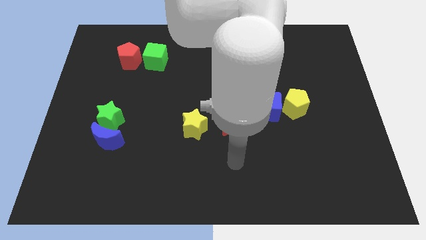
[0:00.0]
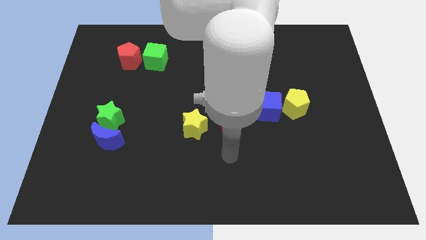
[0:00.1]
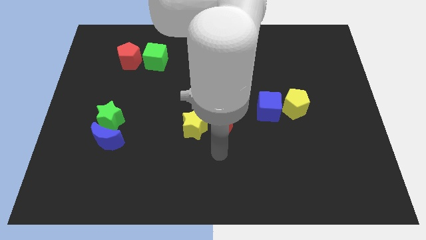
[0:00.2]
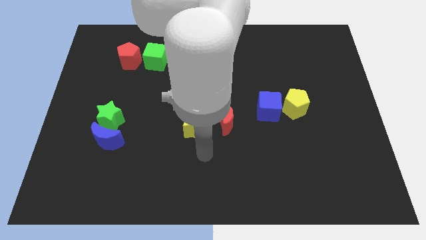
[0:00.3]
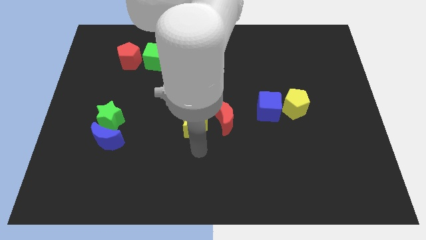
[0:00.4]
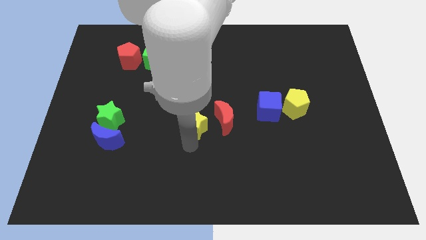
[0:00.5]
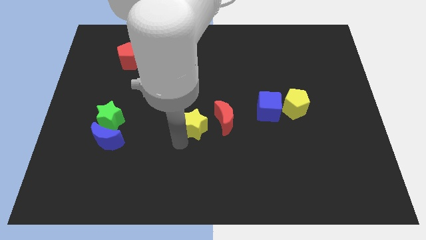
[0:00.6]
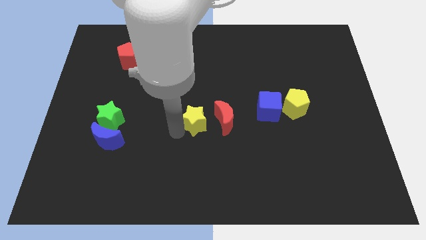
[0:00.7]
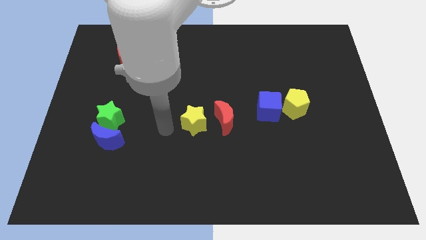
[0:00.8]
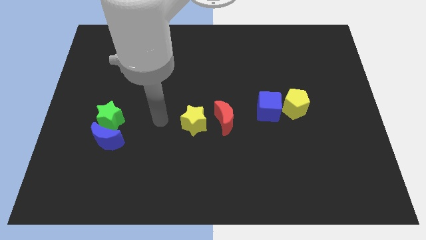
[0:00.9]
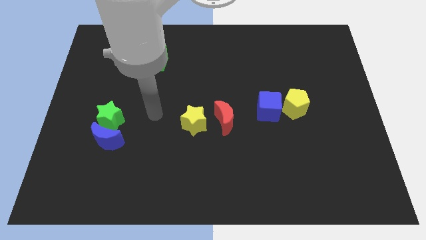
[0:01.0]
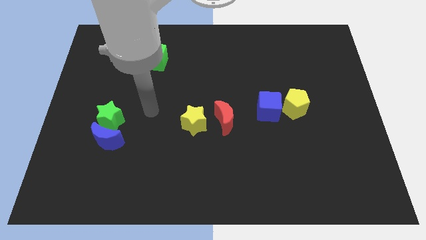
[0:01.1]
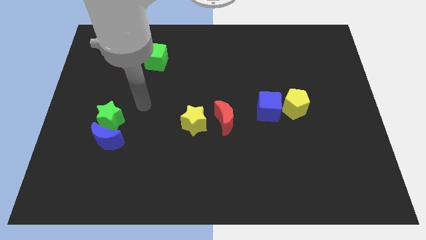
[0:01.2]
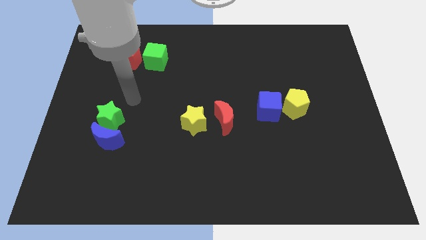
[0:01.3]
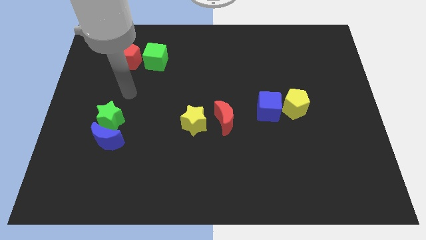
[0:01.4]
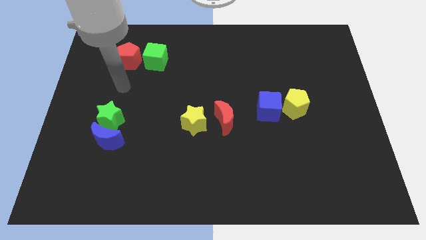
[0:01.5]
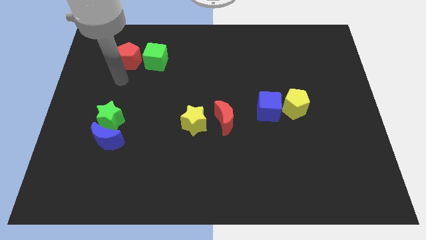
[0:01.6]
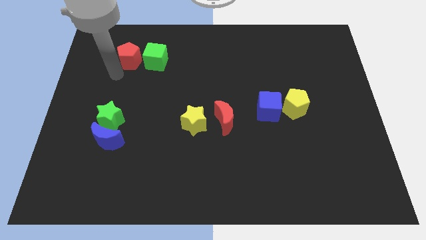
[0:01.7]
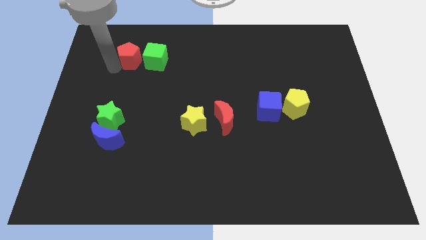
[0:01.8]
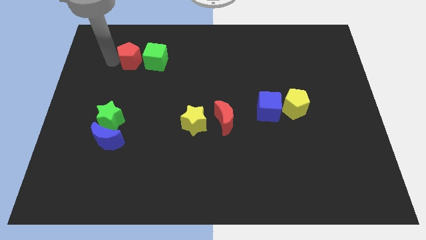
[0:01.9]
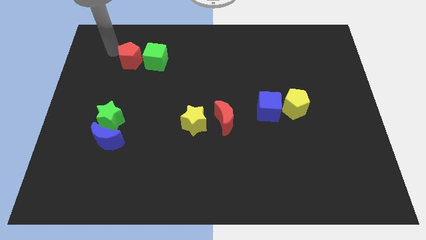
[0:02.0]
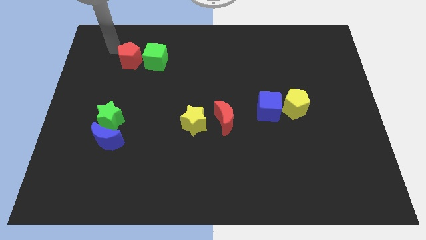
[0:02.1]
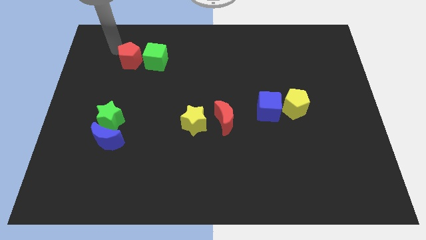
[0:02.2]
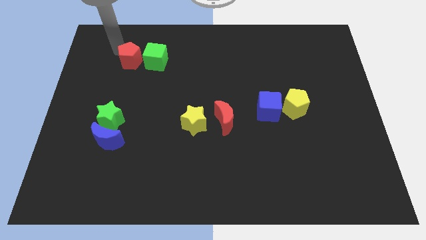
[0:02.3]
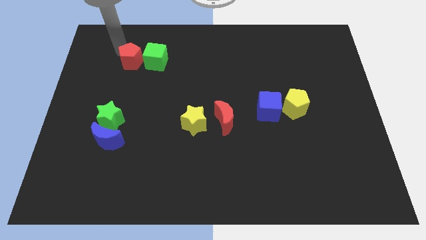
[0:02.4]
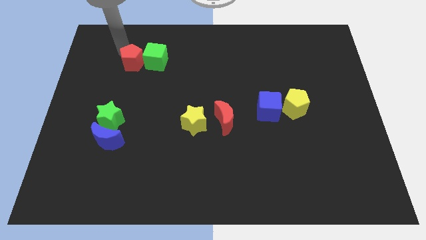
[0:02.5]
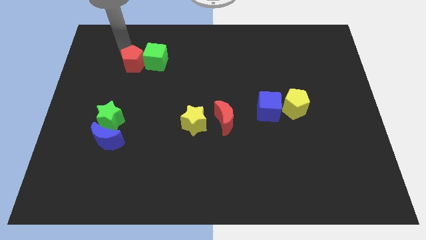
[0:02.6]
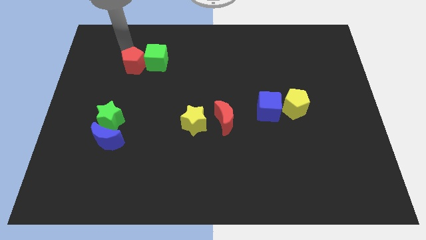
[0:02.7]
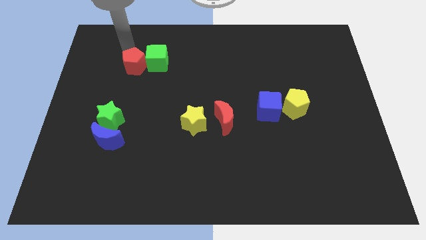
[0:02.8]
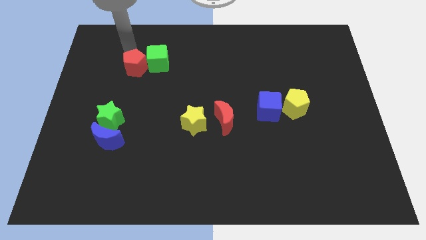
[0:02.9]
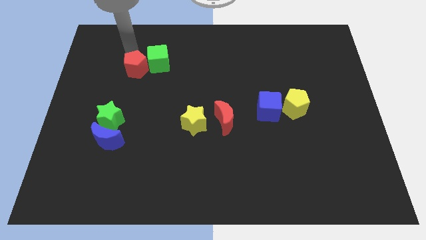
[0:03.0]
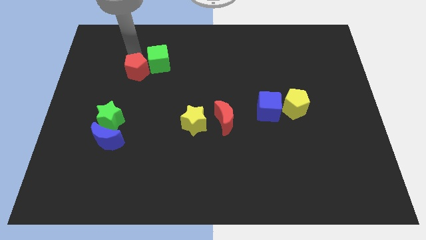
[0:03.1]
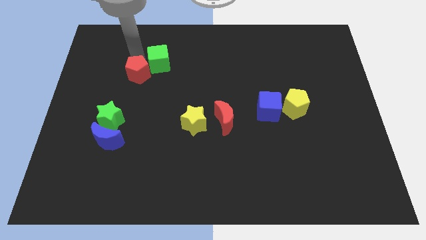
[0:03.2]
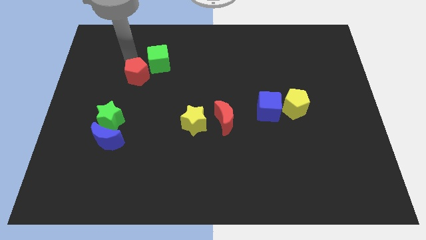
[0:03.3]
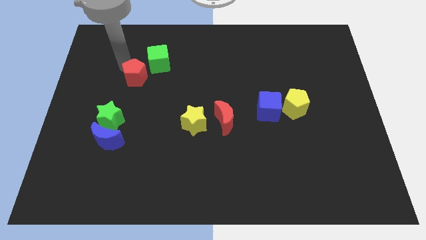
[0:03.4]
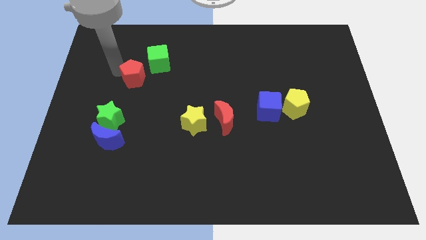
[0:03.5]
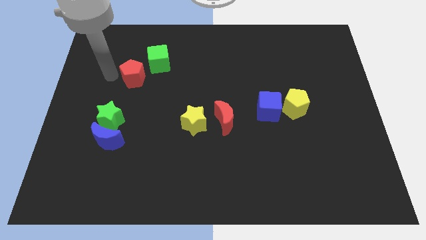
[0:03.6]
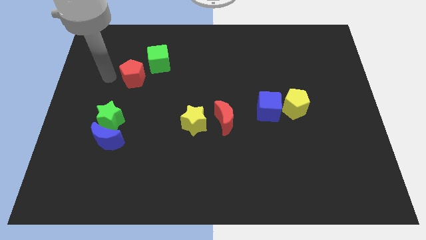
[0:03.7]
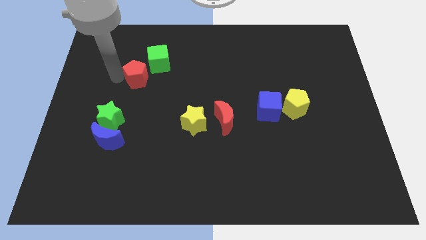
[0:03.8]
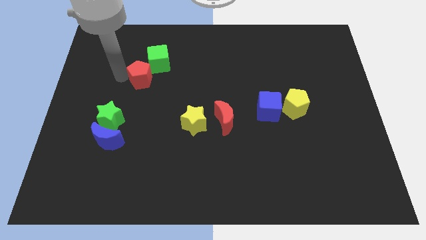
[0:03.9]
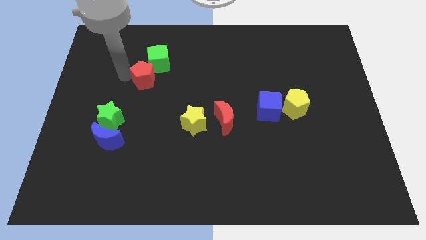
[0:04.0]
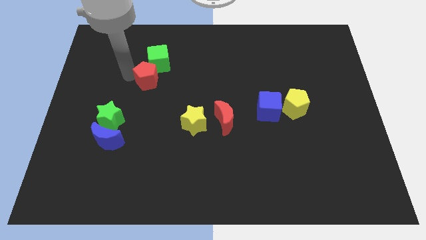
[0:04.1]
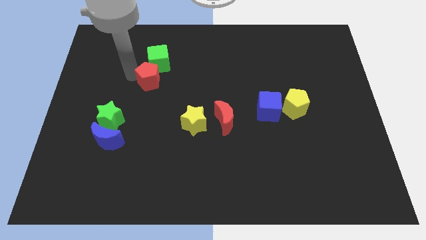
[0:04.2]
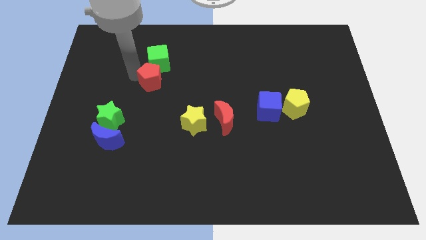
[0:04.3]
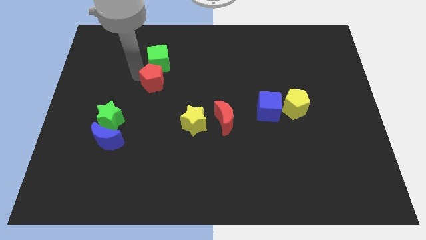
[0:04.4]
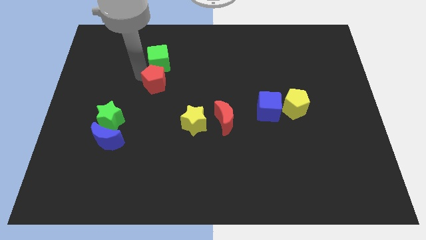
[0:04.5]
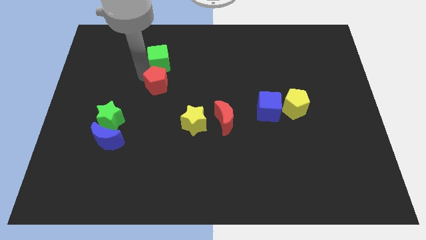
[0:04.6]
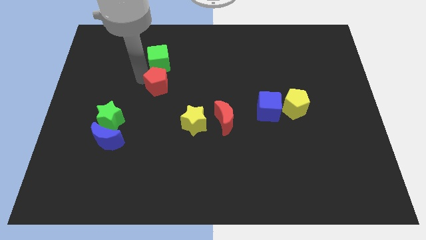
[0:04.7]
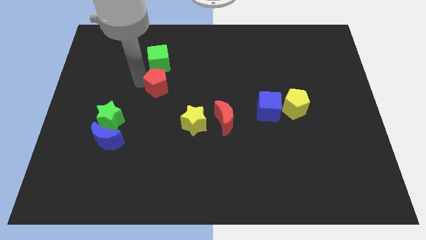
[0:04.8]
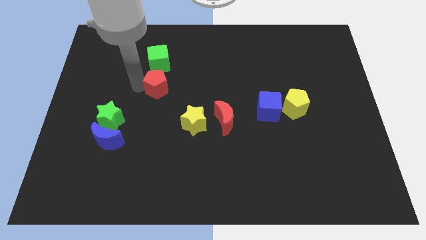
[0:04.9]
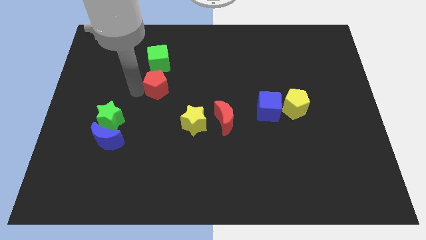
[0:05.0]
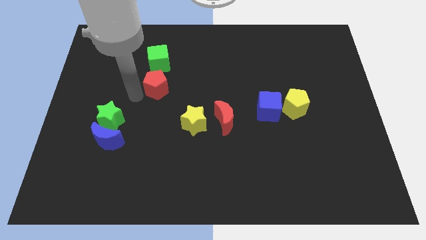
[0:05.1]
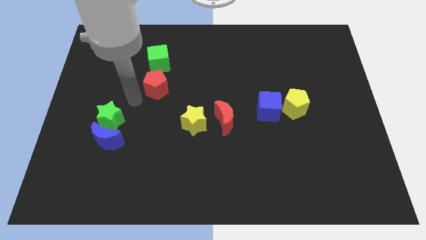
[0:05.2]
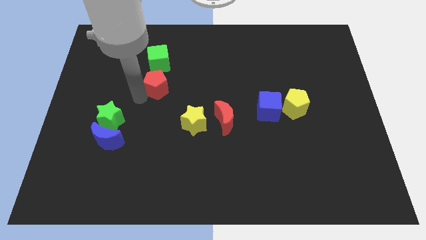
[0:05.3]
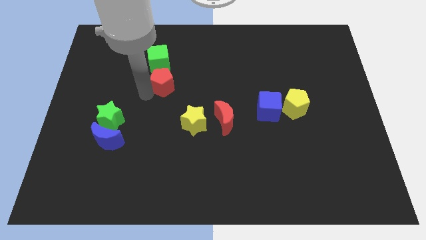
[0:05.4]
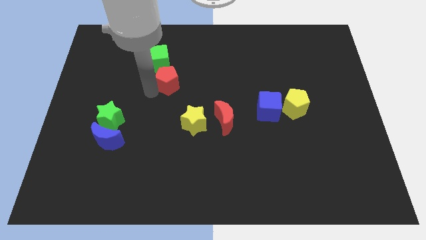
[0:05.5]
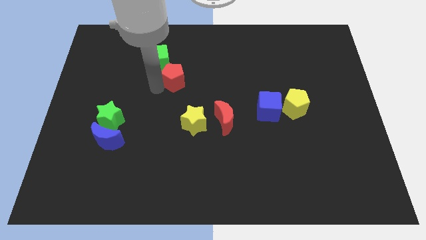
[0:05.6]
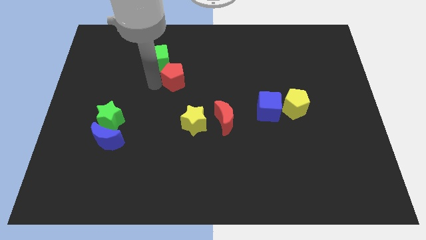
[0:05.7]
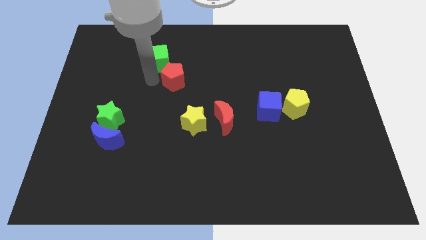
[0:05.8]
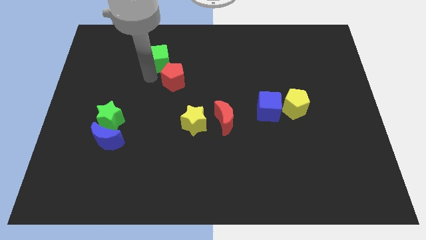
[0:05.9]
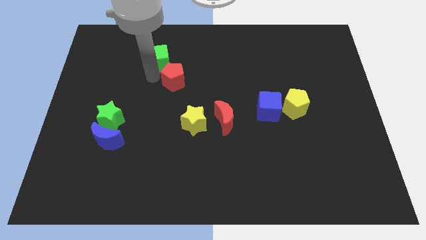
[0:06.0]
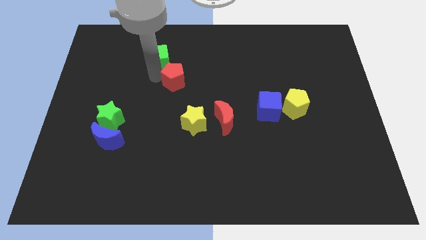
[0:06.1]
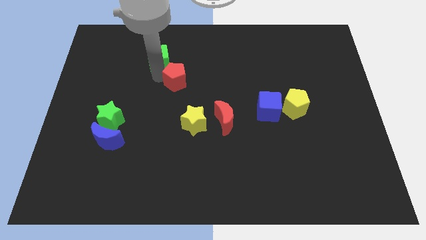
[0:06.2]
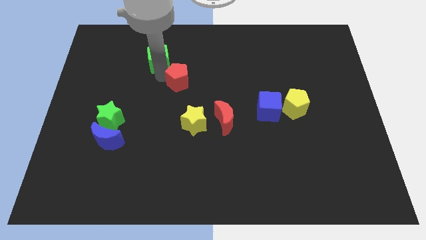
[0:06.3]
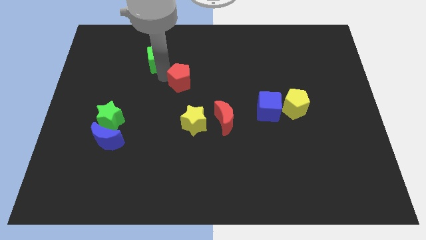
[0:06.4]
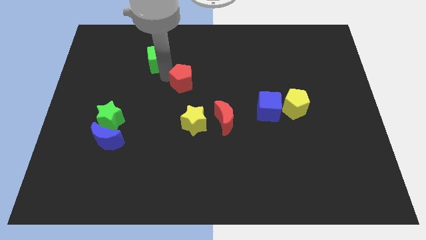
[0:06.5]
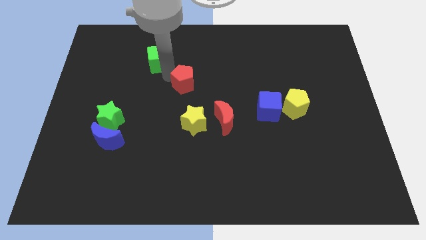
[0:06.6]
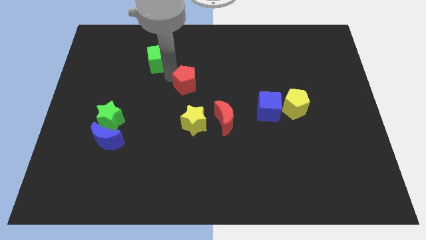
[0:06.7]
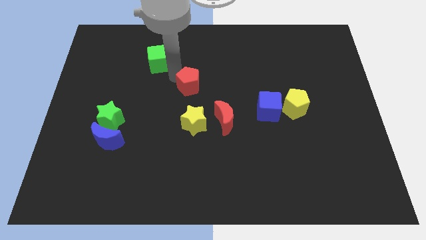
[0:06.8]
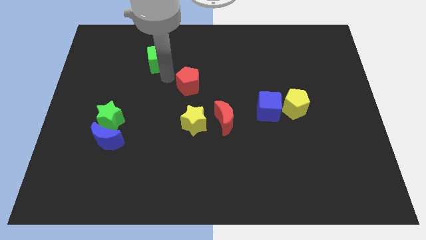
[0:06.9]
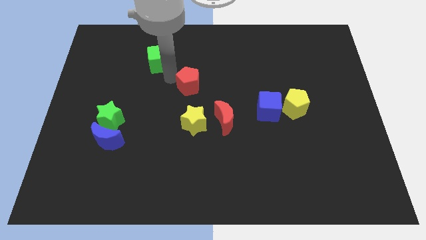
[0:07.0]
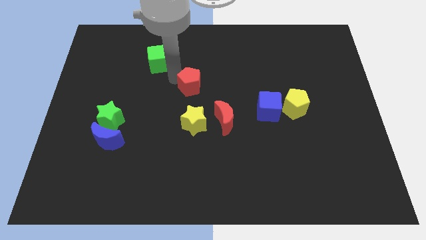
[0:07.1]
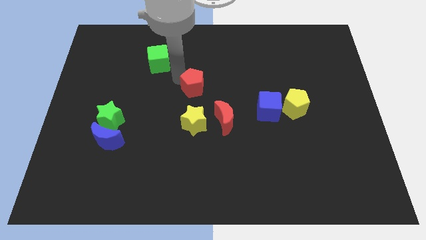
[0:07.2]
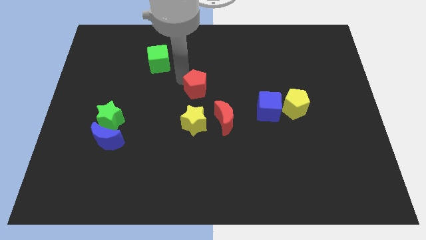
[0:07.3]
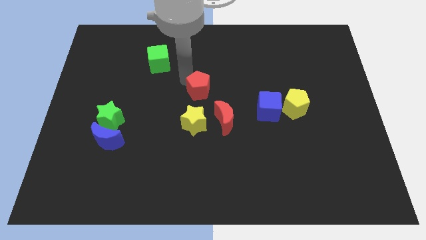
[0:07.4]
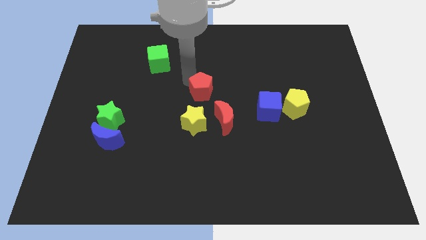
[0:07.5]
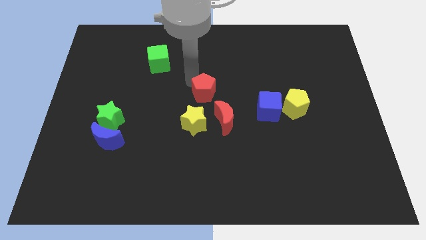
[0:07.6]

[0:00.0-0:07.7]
move the red pentagon diagonally downwards and right

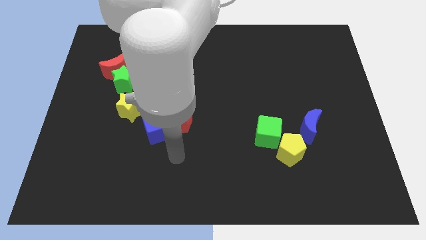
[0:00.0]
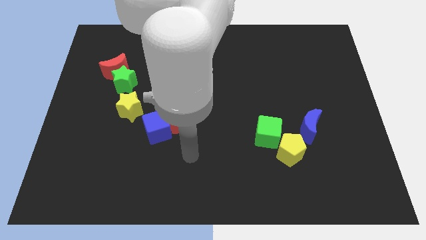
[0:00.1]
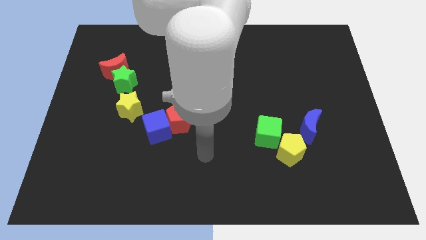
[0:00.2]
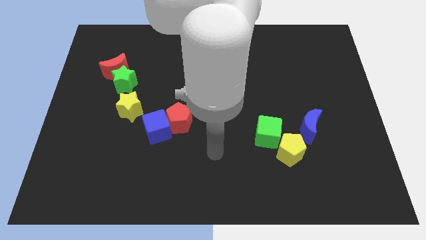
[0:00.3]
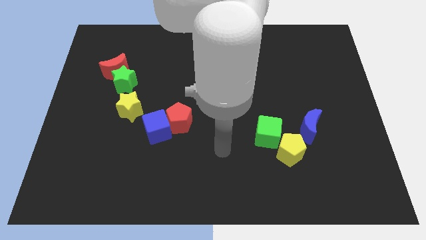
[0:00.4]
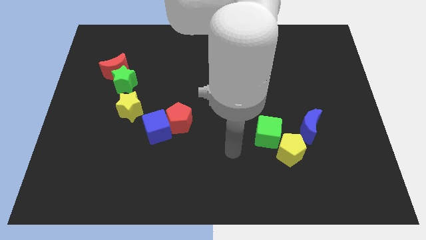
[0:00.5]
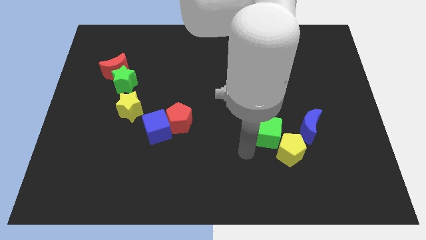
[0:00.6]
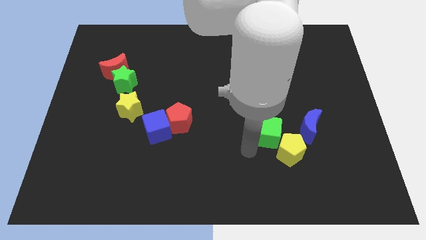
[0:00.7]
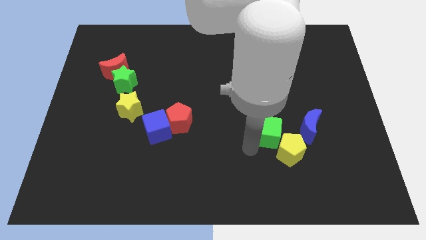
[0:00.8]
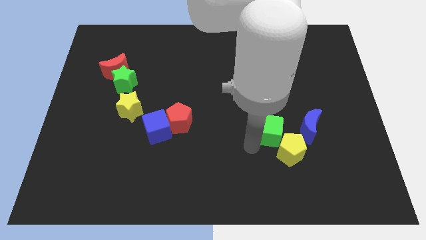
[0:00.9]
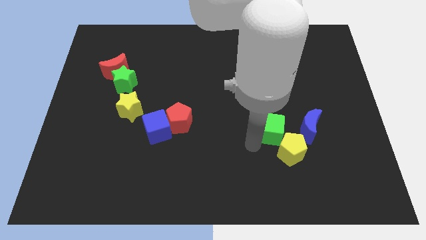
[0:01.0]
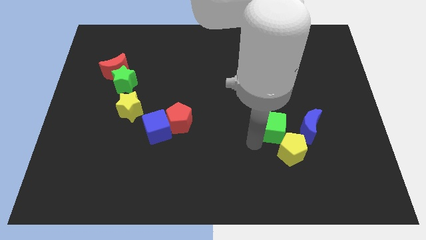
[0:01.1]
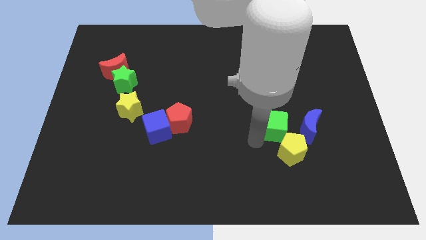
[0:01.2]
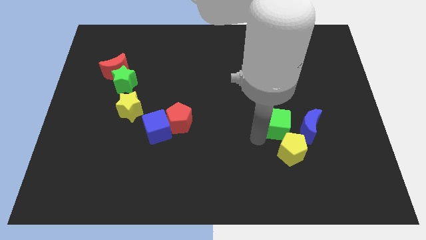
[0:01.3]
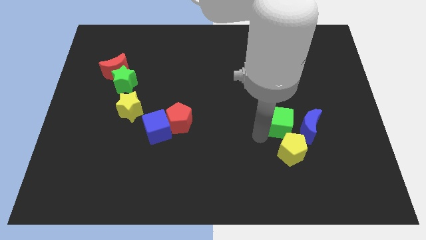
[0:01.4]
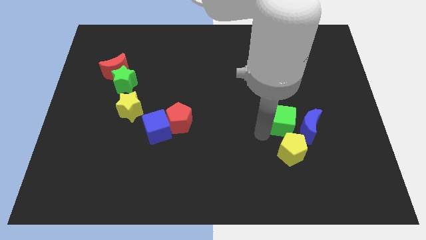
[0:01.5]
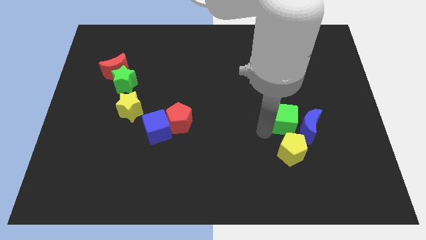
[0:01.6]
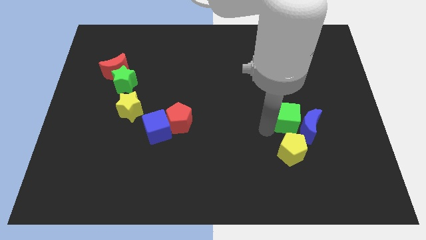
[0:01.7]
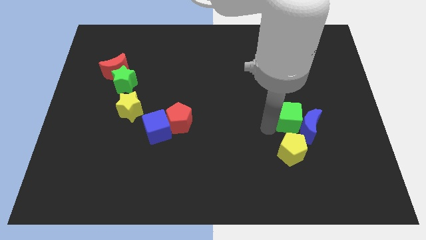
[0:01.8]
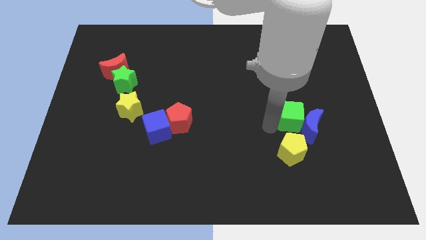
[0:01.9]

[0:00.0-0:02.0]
move the green cube upwards and right slightly
